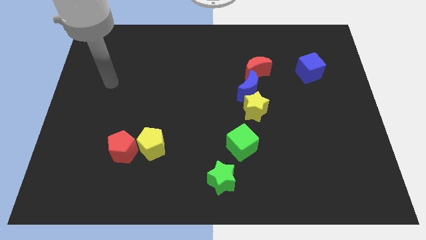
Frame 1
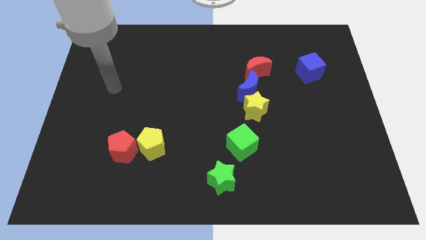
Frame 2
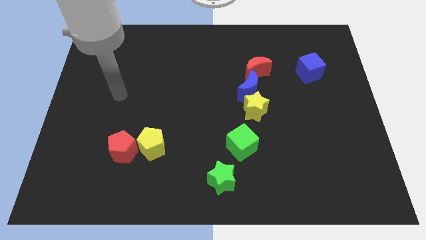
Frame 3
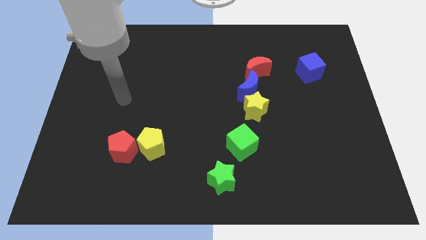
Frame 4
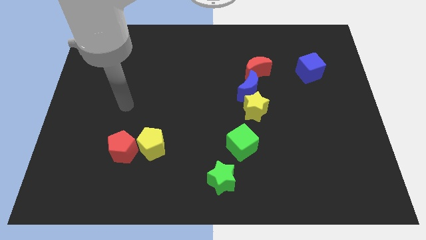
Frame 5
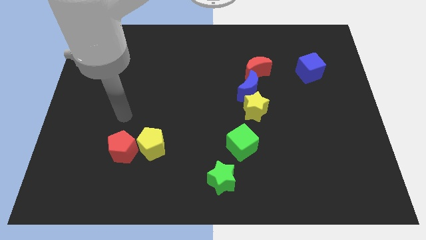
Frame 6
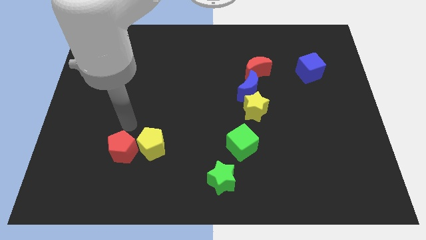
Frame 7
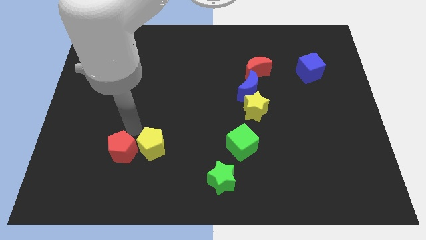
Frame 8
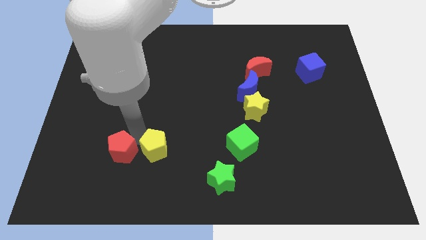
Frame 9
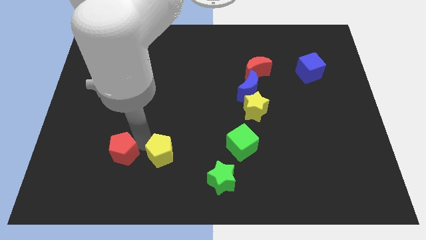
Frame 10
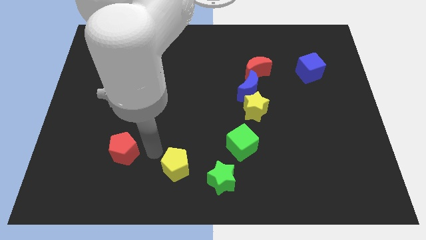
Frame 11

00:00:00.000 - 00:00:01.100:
move the red pentagon away from the yellow pentagon

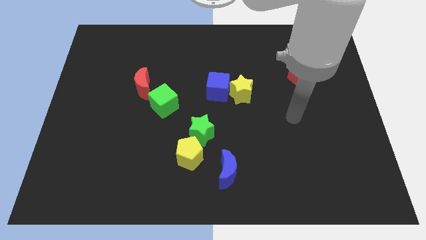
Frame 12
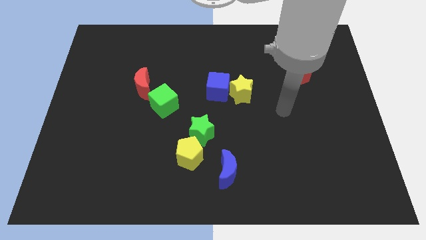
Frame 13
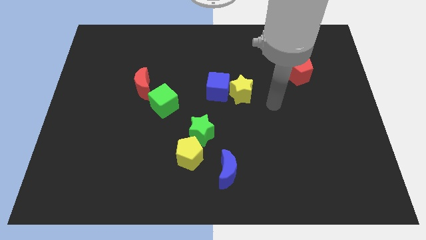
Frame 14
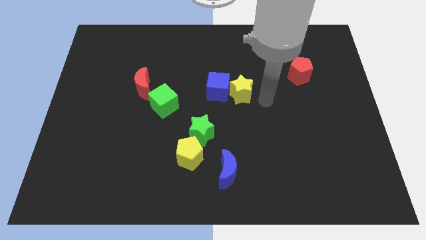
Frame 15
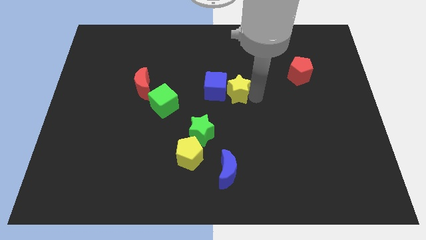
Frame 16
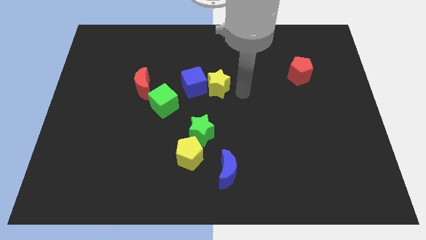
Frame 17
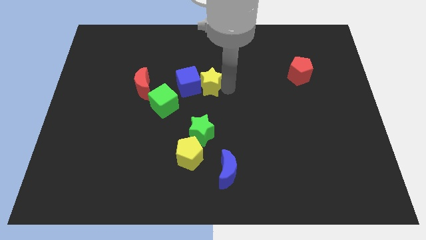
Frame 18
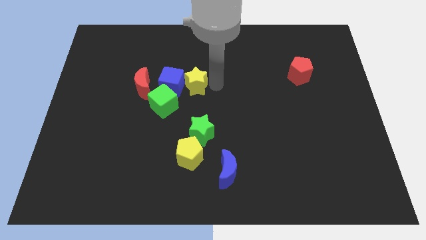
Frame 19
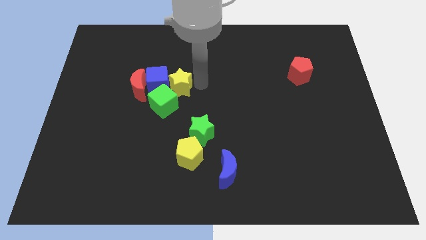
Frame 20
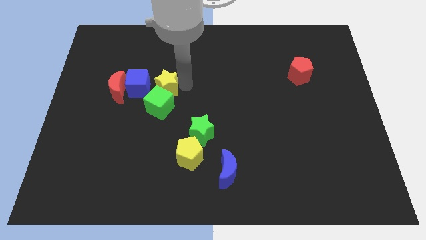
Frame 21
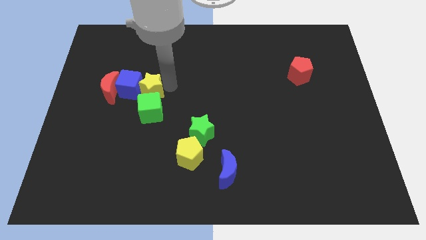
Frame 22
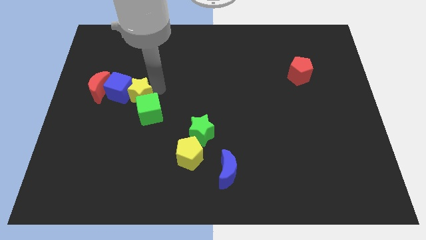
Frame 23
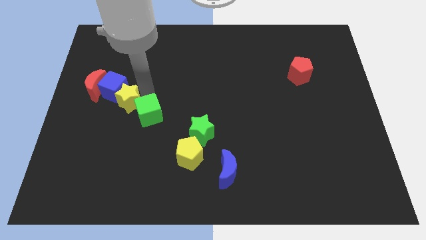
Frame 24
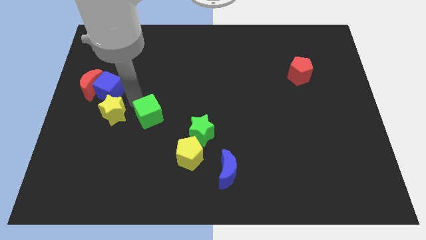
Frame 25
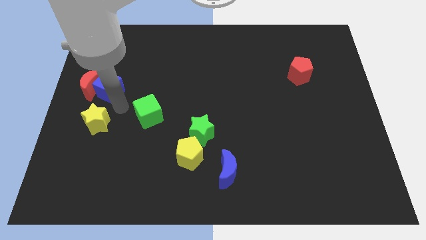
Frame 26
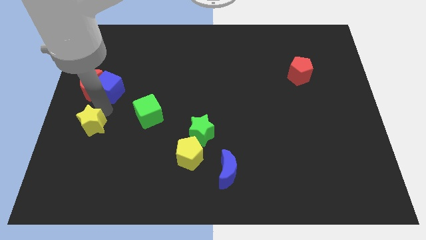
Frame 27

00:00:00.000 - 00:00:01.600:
move the blue cube away from the yellow star

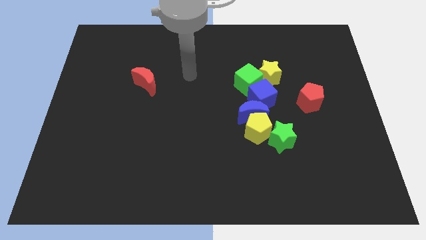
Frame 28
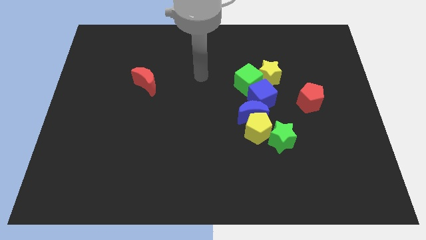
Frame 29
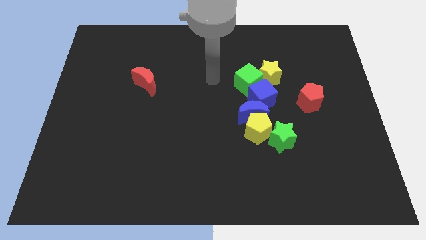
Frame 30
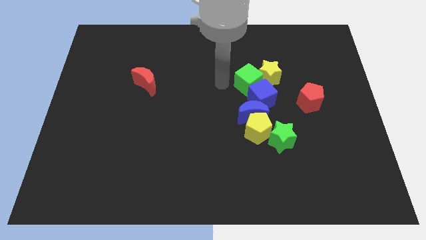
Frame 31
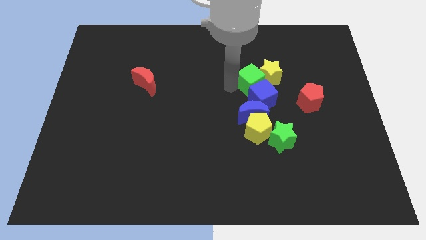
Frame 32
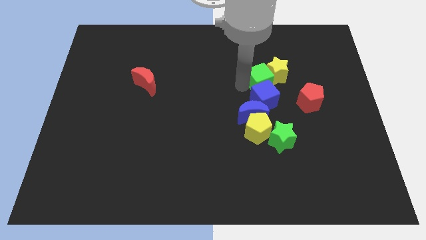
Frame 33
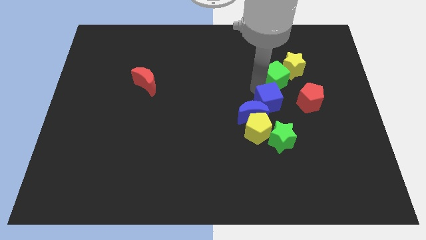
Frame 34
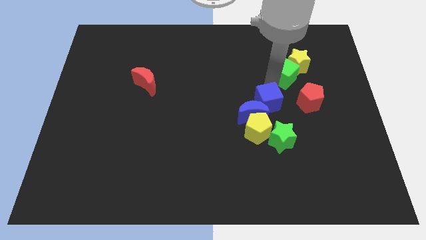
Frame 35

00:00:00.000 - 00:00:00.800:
pull the yellow star apart from the green cube and blue cube

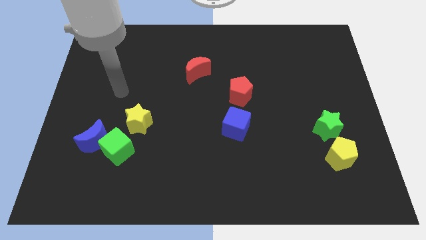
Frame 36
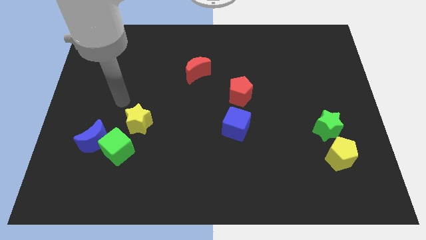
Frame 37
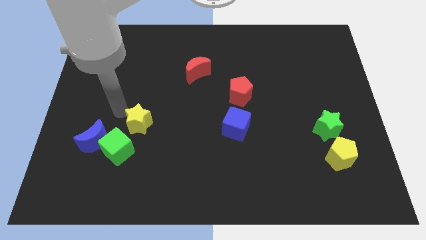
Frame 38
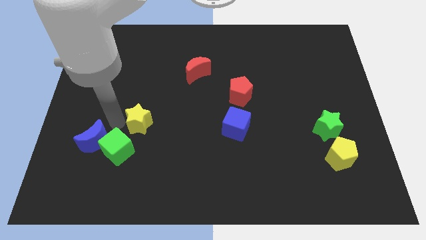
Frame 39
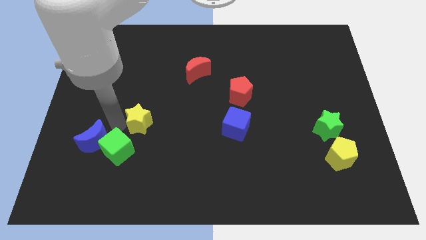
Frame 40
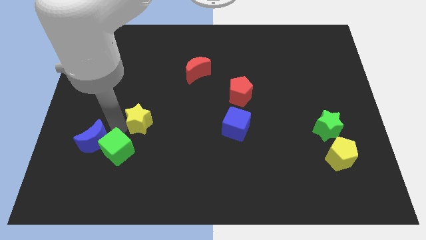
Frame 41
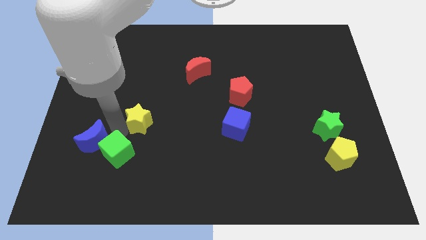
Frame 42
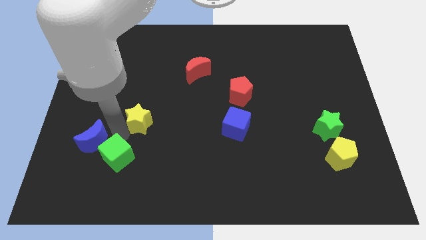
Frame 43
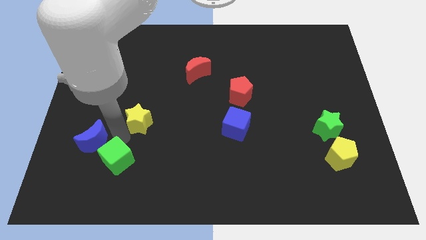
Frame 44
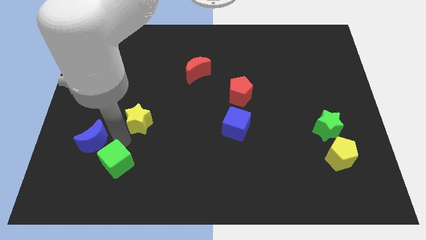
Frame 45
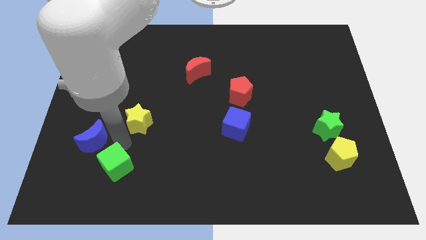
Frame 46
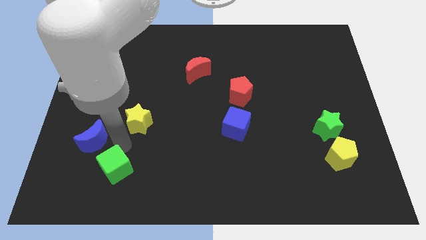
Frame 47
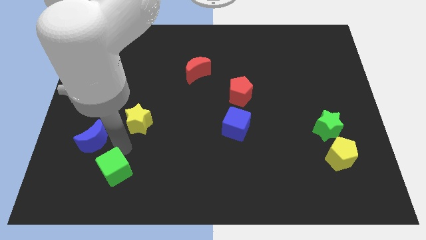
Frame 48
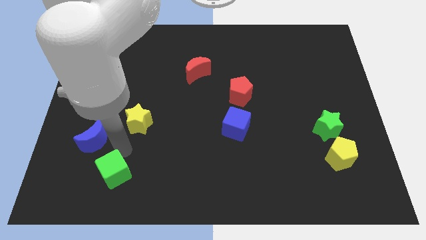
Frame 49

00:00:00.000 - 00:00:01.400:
move the green cube away from the blue moon and yellow star

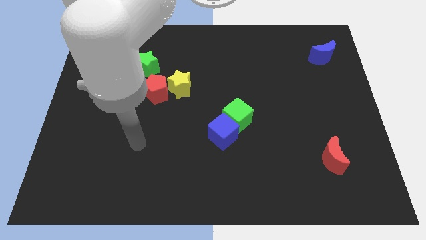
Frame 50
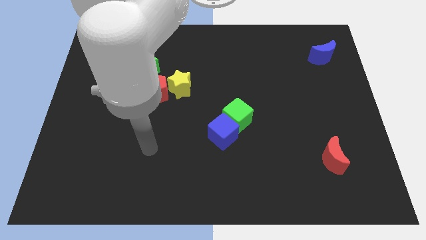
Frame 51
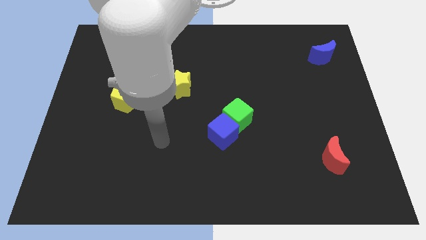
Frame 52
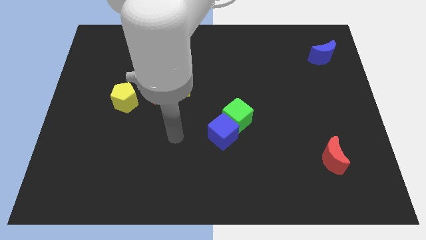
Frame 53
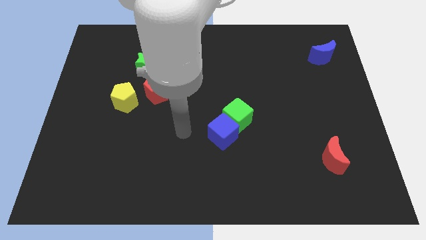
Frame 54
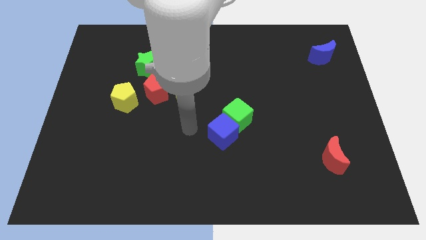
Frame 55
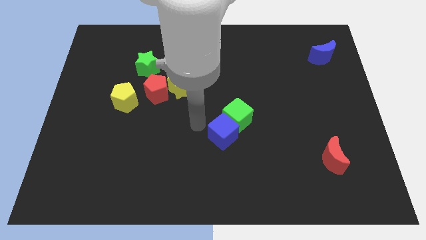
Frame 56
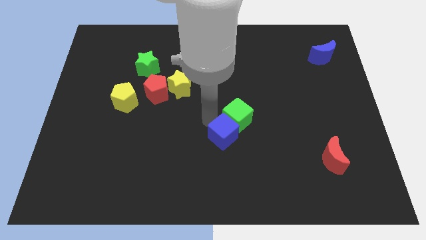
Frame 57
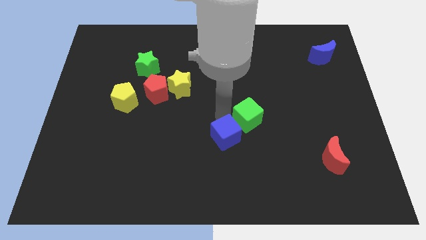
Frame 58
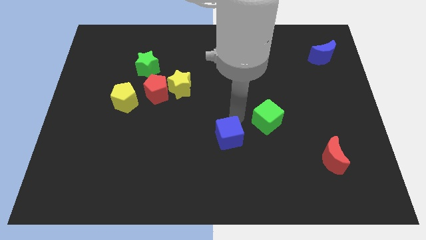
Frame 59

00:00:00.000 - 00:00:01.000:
pull the blue cube apart from the green cube

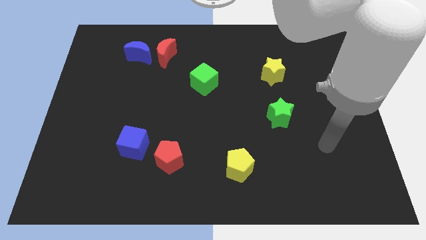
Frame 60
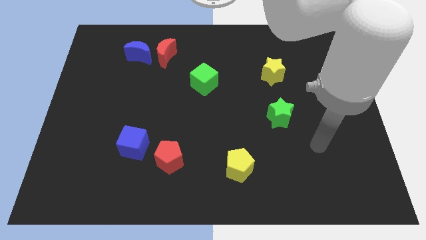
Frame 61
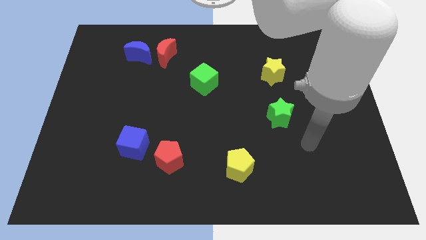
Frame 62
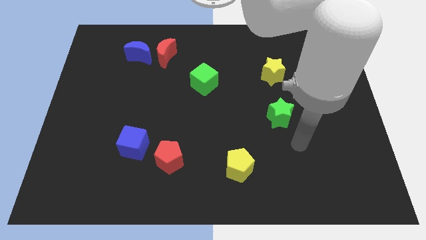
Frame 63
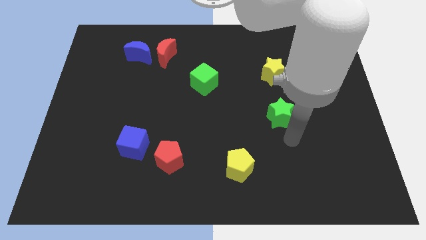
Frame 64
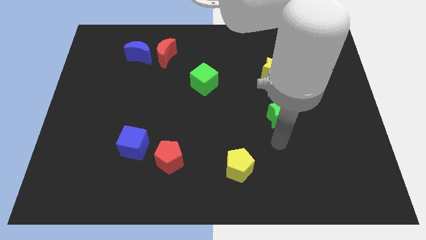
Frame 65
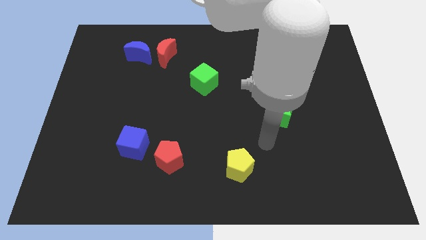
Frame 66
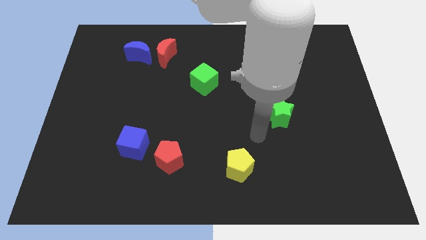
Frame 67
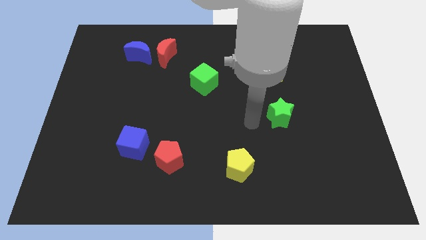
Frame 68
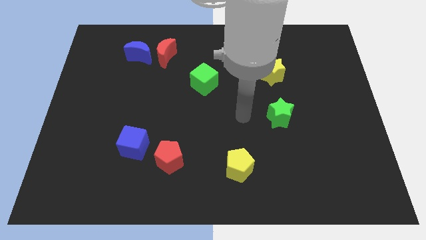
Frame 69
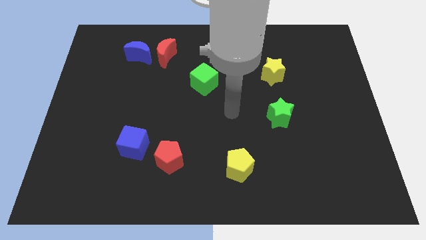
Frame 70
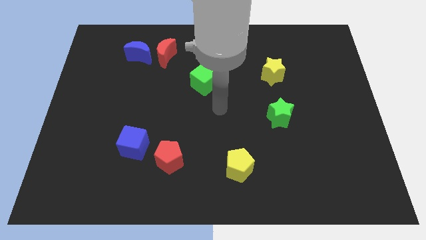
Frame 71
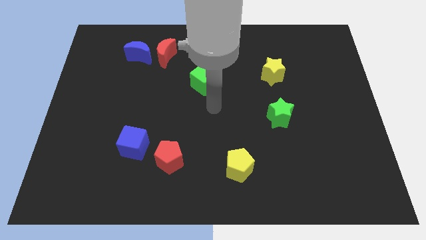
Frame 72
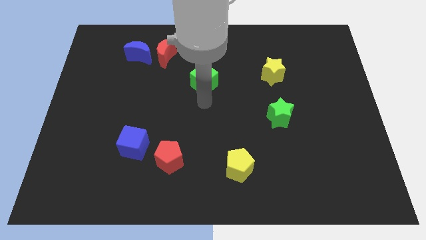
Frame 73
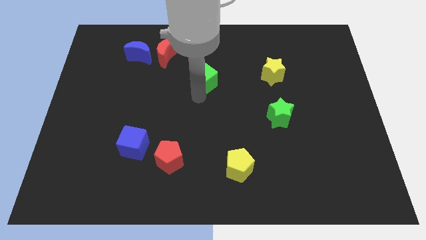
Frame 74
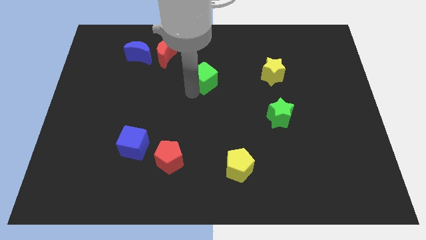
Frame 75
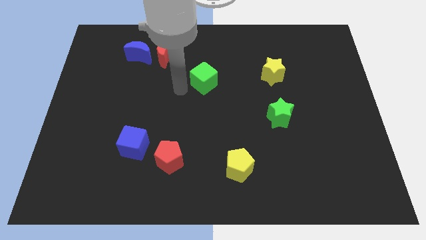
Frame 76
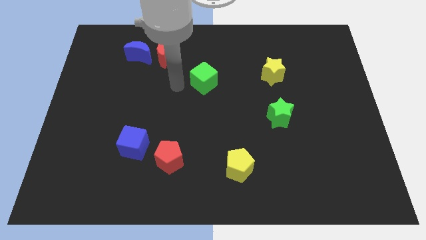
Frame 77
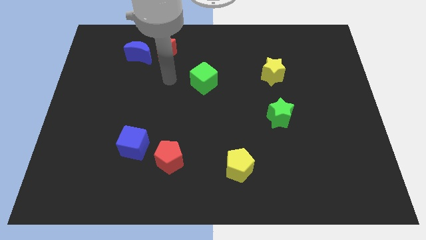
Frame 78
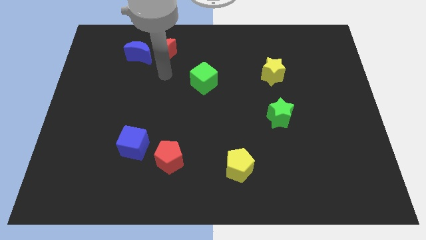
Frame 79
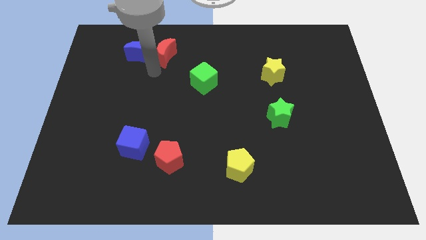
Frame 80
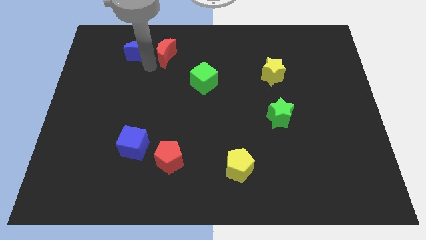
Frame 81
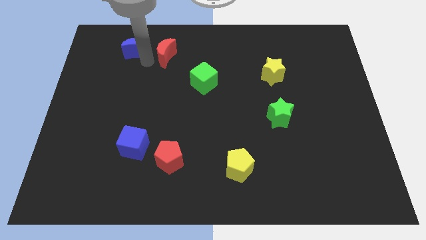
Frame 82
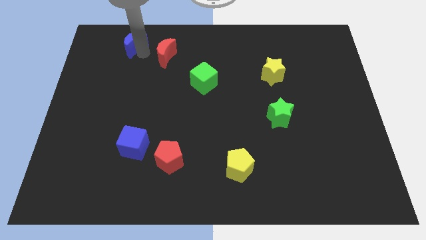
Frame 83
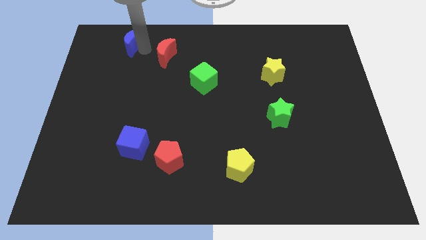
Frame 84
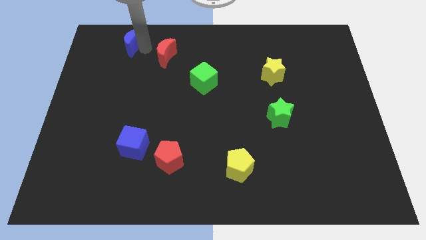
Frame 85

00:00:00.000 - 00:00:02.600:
move the red moon away from the blue moon

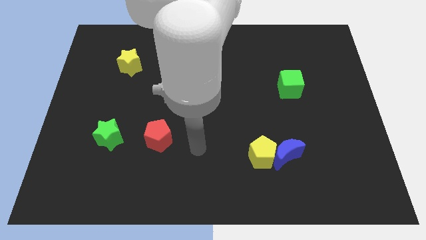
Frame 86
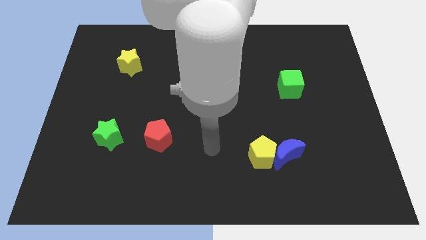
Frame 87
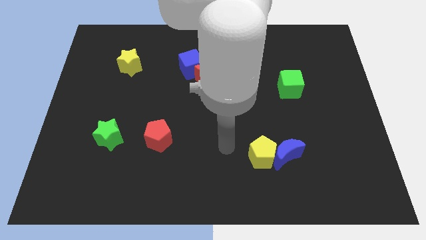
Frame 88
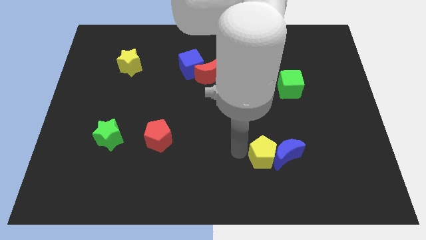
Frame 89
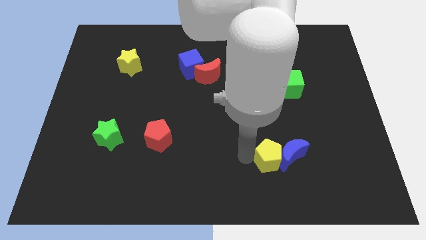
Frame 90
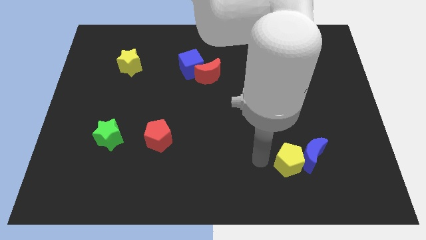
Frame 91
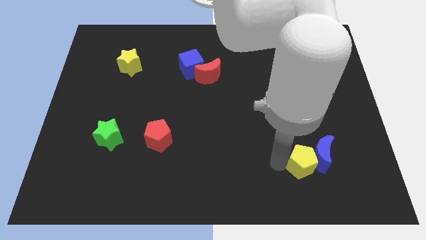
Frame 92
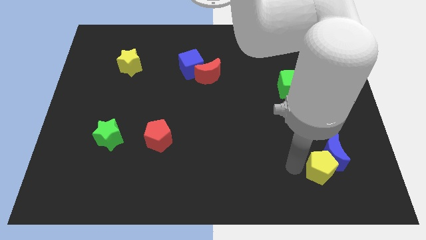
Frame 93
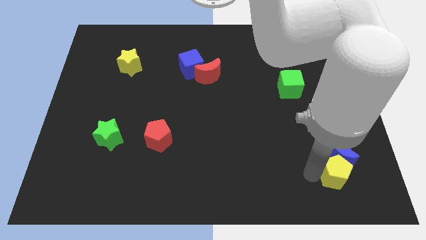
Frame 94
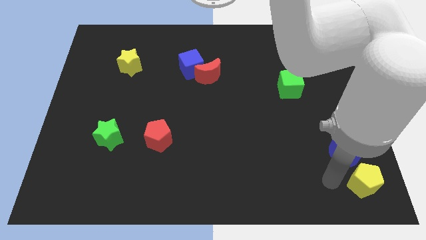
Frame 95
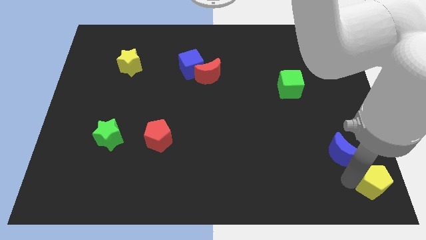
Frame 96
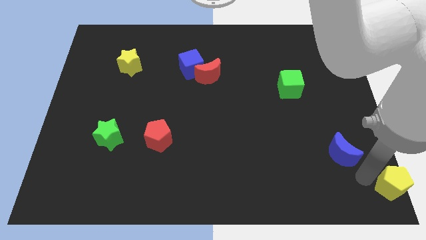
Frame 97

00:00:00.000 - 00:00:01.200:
pull the blue moon apart from the yellow pentagon
